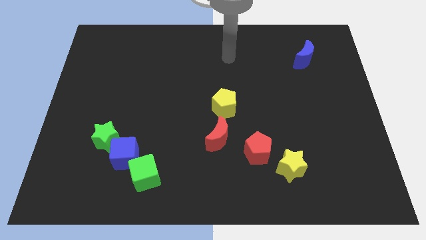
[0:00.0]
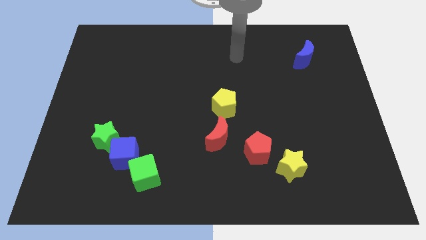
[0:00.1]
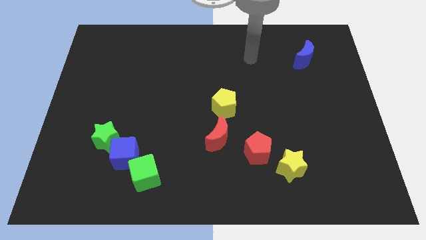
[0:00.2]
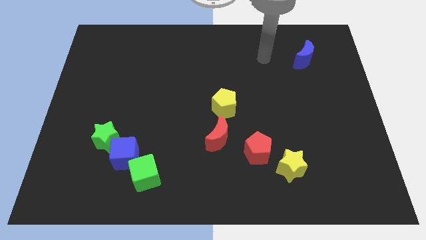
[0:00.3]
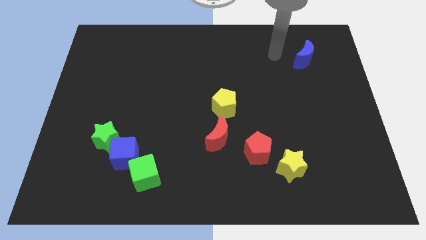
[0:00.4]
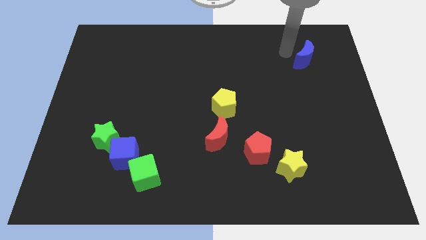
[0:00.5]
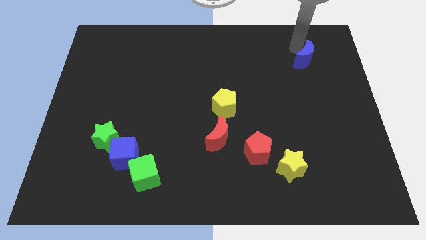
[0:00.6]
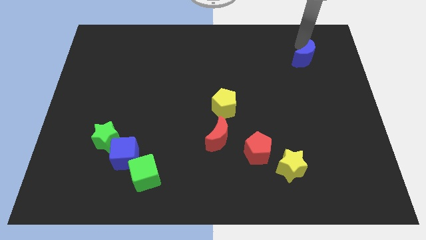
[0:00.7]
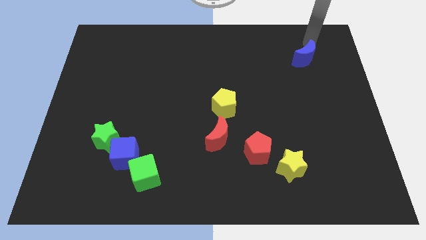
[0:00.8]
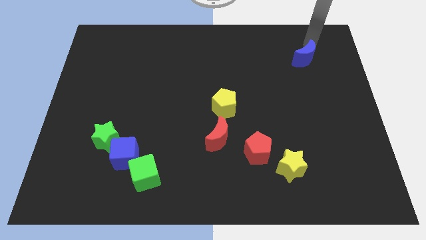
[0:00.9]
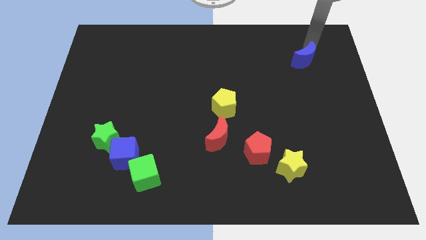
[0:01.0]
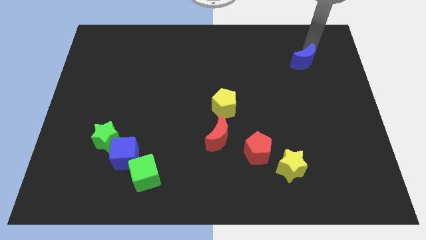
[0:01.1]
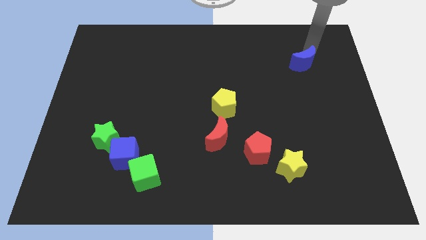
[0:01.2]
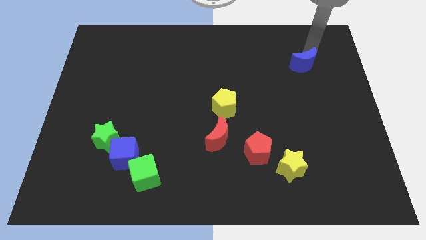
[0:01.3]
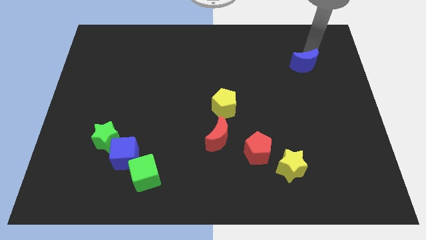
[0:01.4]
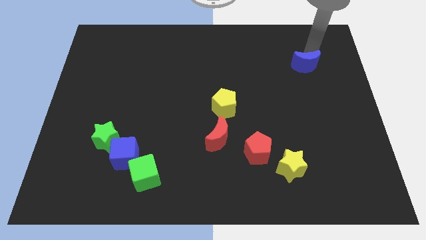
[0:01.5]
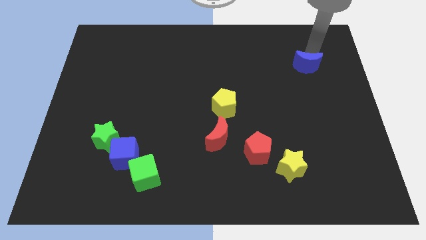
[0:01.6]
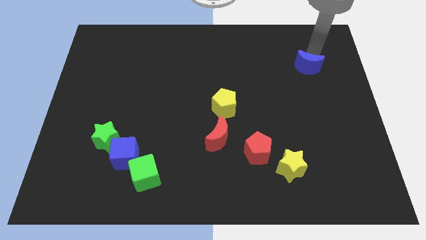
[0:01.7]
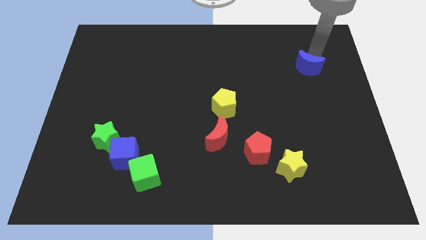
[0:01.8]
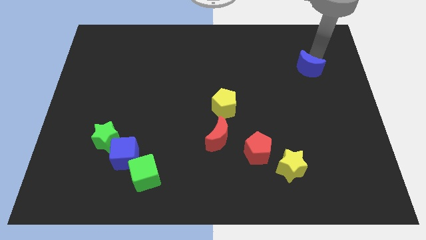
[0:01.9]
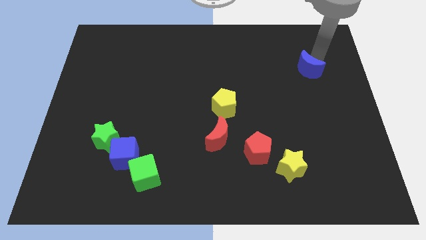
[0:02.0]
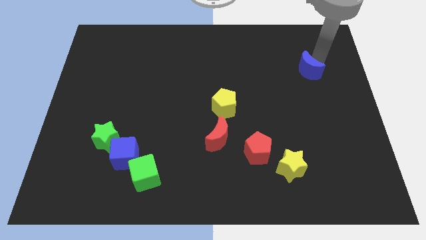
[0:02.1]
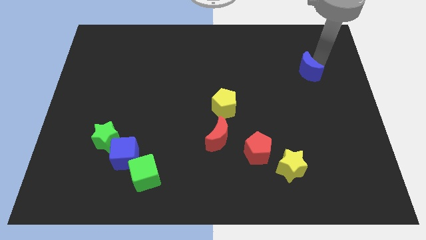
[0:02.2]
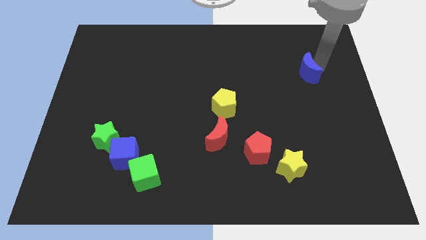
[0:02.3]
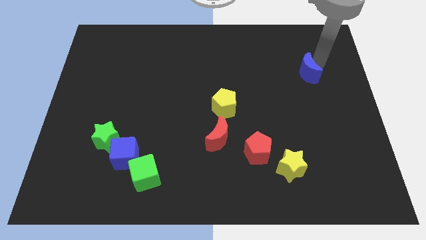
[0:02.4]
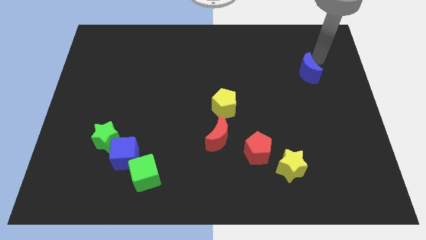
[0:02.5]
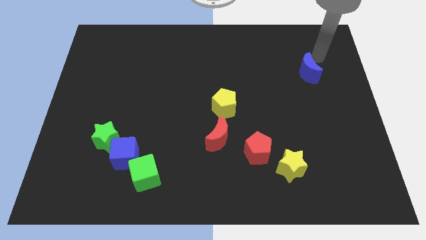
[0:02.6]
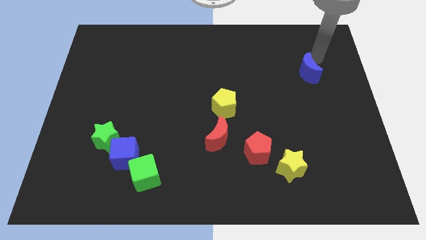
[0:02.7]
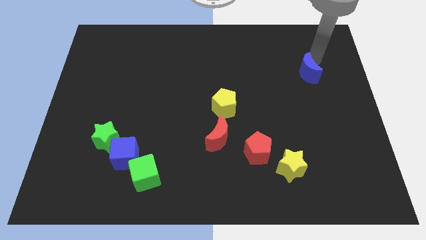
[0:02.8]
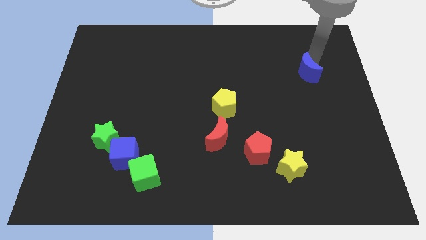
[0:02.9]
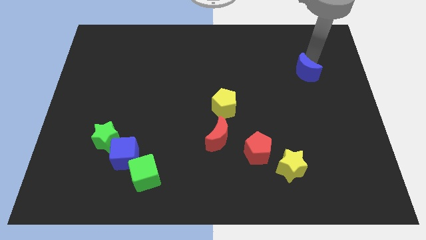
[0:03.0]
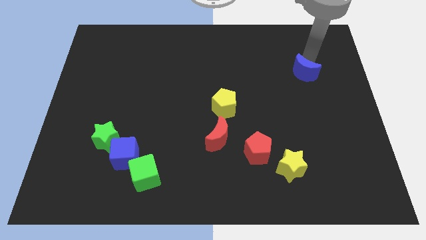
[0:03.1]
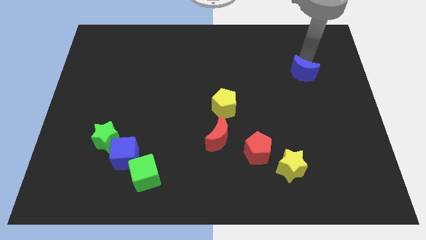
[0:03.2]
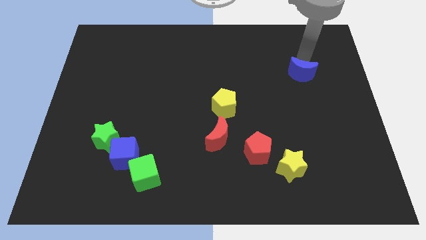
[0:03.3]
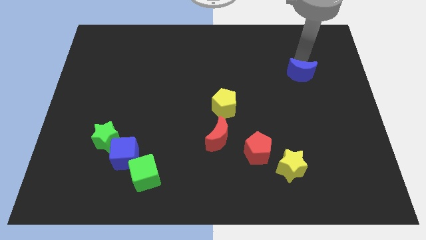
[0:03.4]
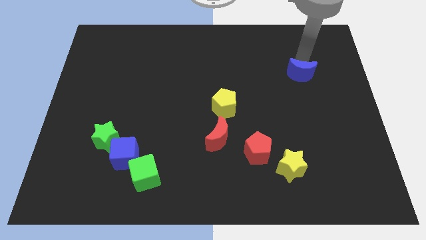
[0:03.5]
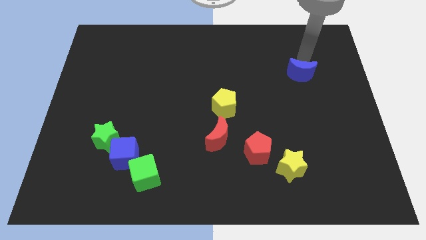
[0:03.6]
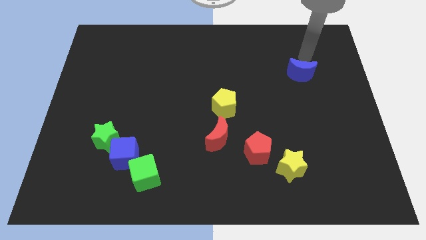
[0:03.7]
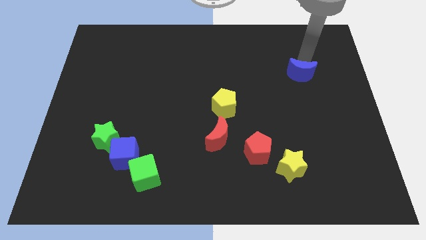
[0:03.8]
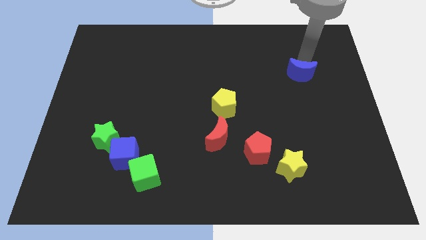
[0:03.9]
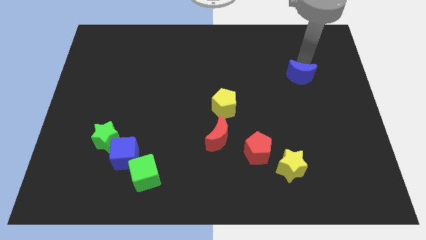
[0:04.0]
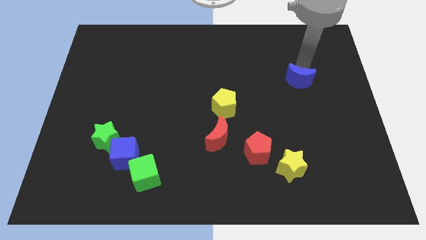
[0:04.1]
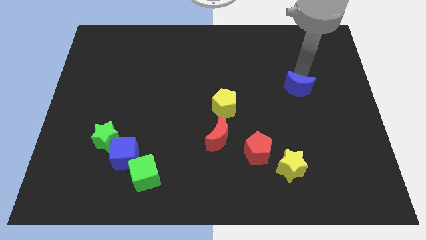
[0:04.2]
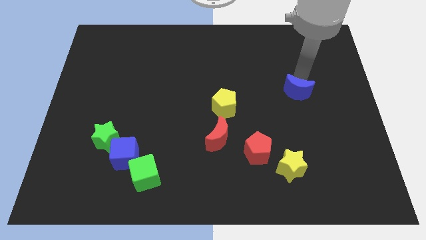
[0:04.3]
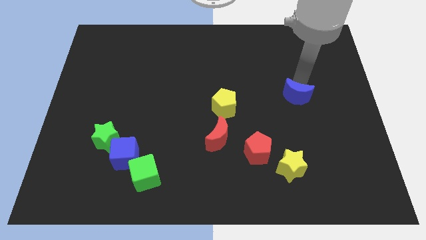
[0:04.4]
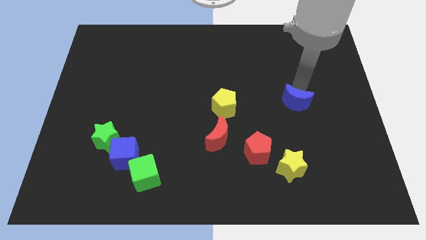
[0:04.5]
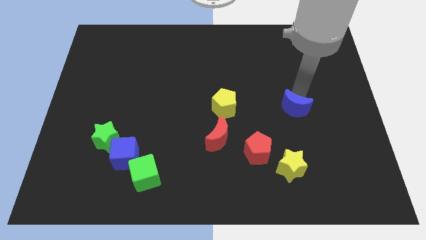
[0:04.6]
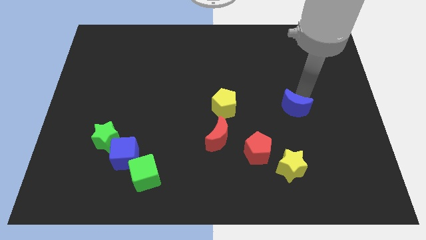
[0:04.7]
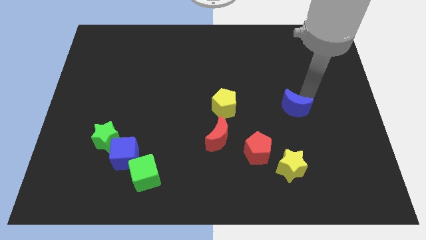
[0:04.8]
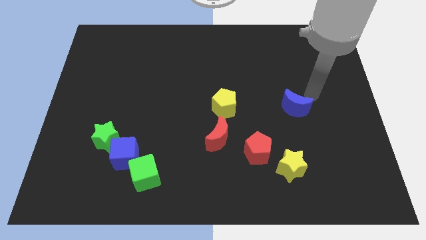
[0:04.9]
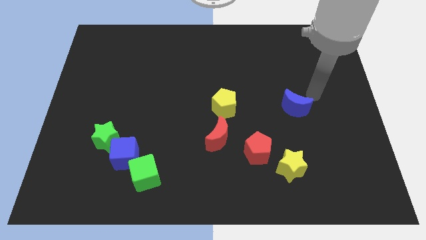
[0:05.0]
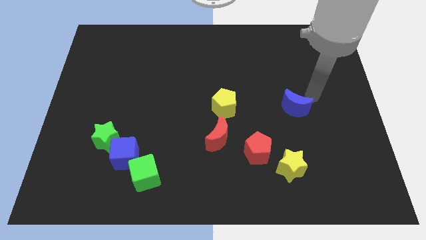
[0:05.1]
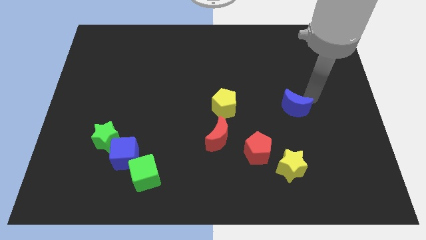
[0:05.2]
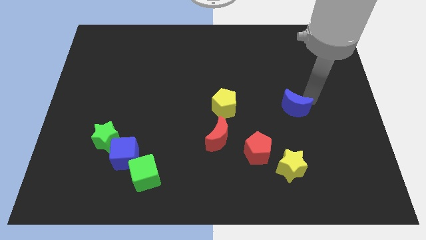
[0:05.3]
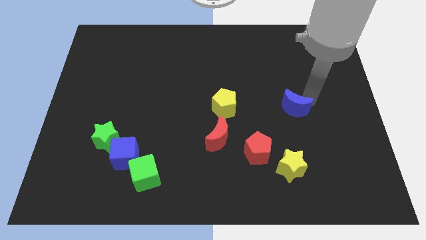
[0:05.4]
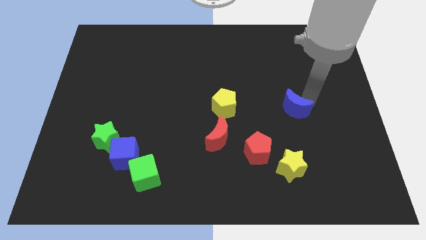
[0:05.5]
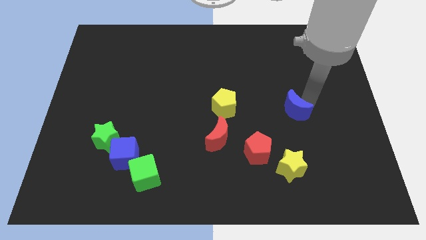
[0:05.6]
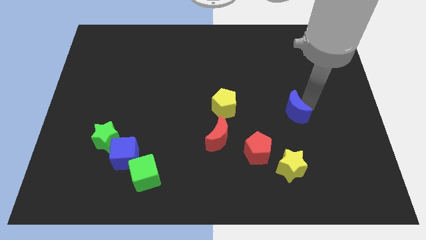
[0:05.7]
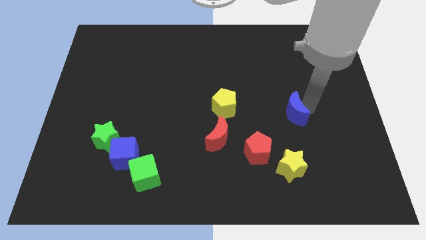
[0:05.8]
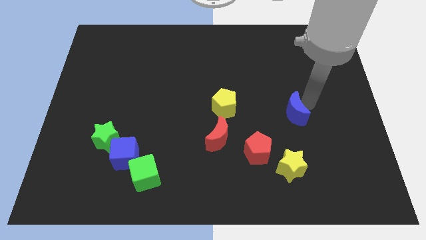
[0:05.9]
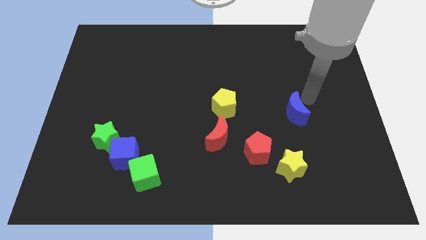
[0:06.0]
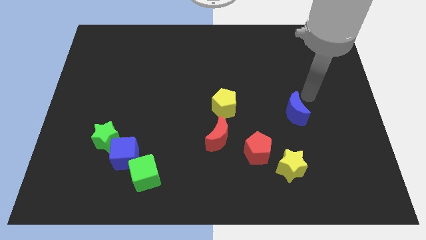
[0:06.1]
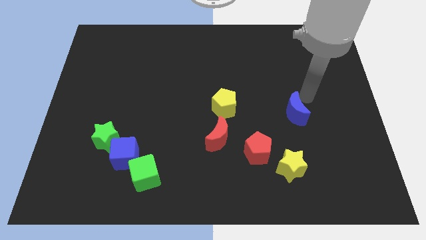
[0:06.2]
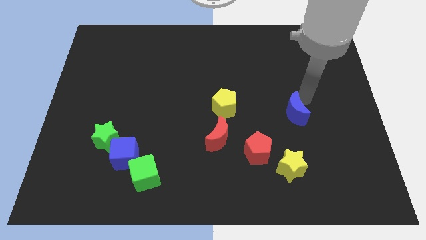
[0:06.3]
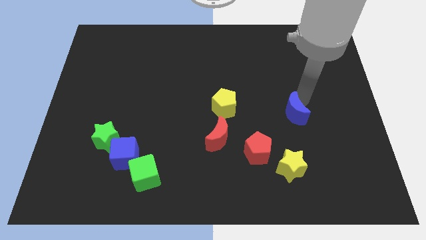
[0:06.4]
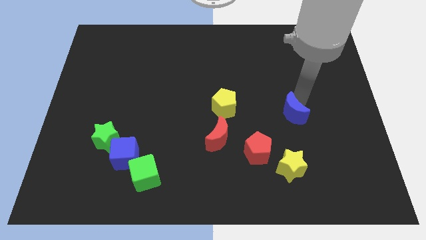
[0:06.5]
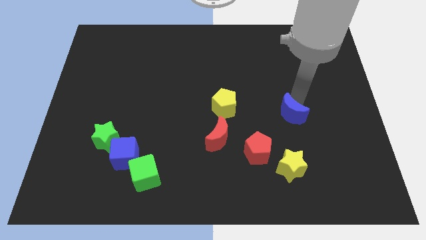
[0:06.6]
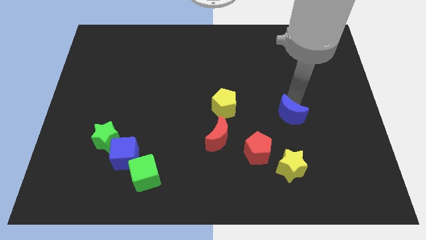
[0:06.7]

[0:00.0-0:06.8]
put the blue moon to the top right of the red pentagon

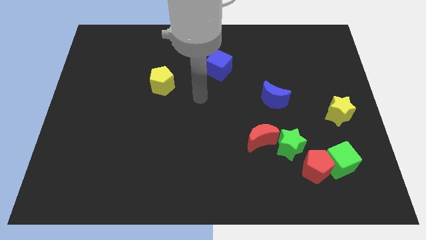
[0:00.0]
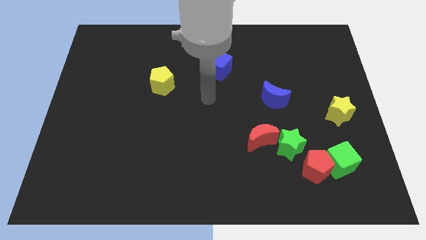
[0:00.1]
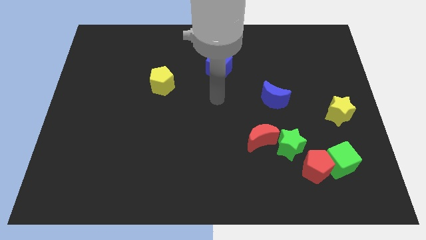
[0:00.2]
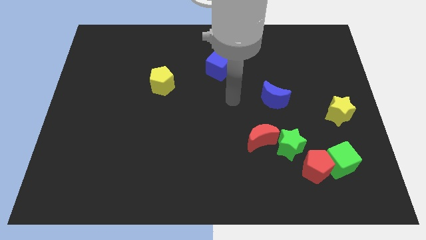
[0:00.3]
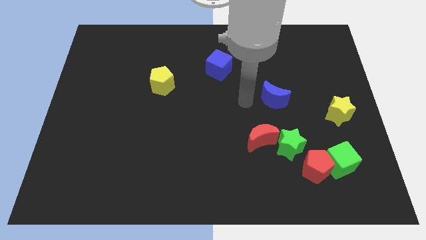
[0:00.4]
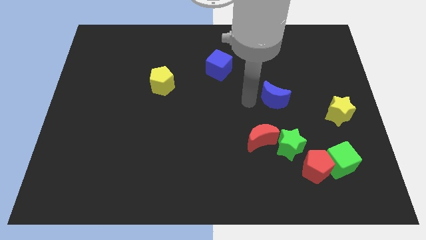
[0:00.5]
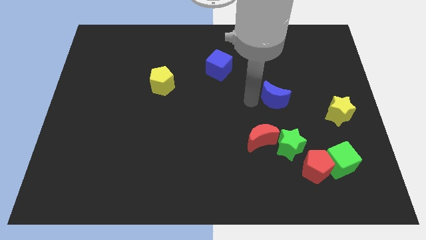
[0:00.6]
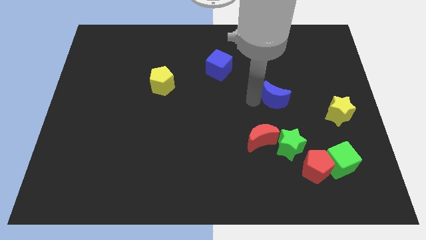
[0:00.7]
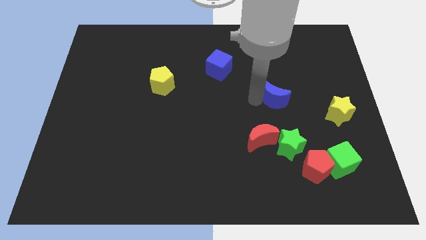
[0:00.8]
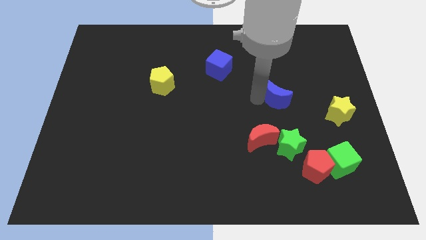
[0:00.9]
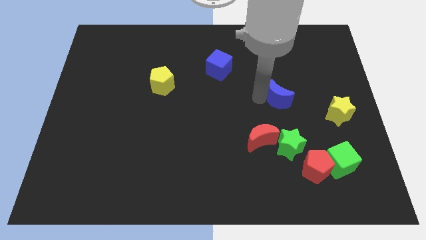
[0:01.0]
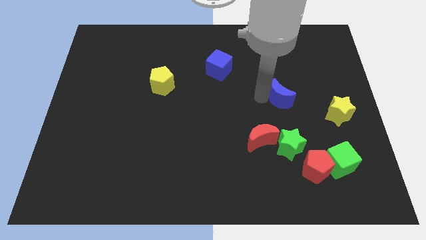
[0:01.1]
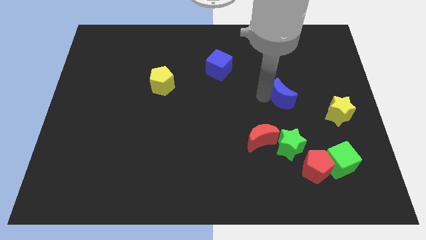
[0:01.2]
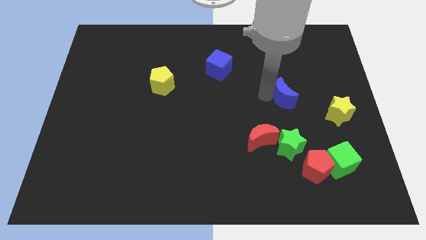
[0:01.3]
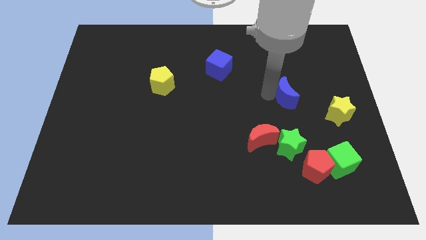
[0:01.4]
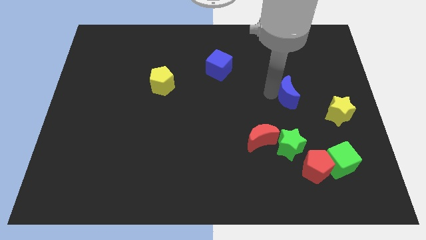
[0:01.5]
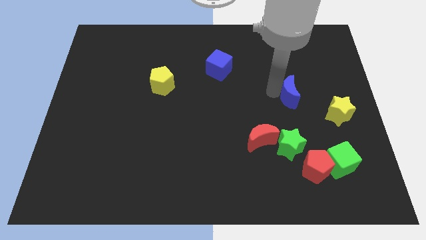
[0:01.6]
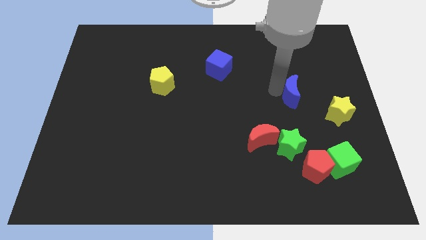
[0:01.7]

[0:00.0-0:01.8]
move the blue moon to the top left side of the yellow star
